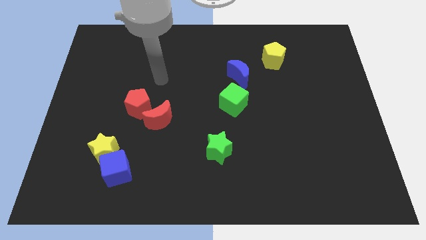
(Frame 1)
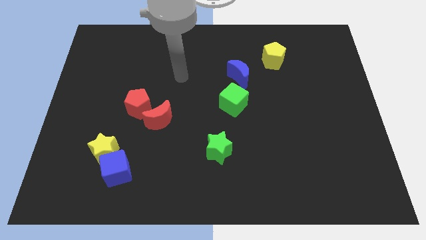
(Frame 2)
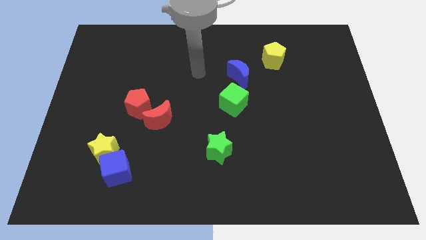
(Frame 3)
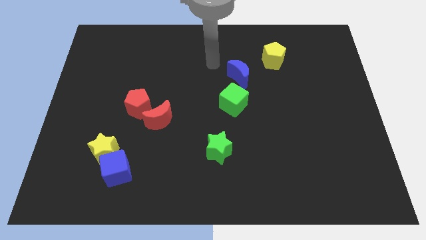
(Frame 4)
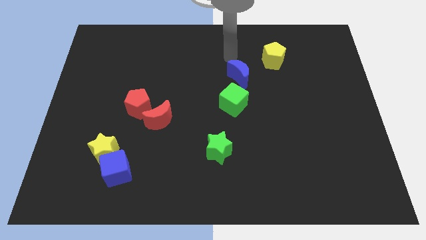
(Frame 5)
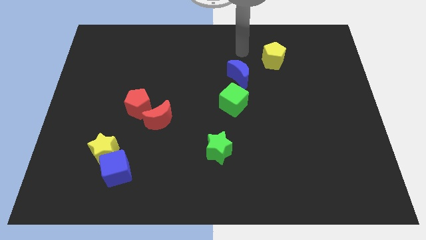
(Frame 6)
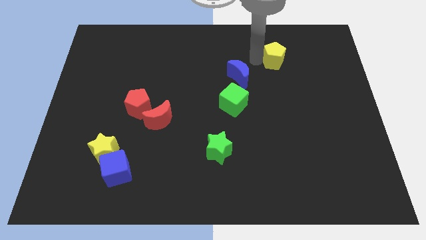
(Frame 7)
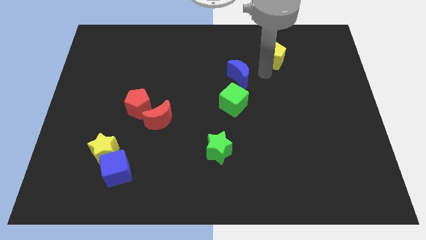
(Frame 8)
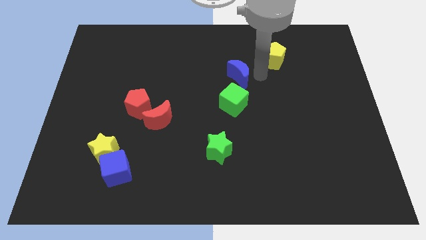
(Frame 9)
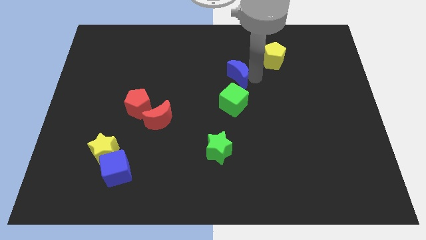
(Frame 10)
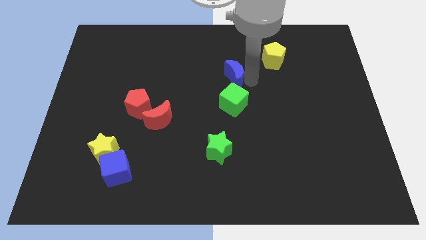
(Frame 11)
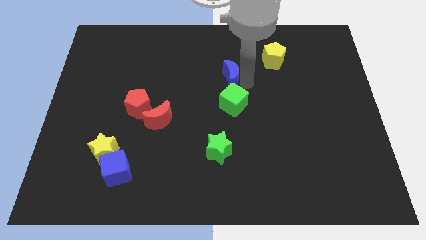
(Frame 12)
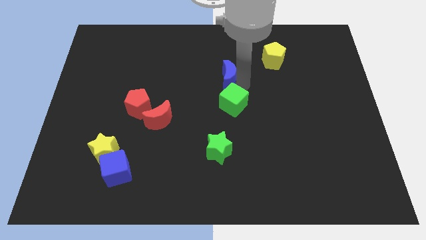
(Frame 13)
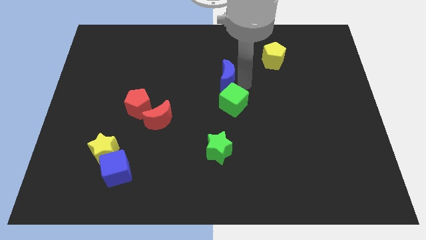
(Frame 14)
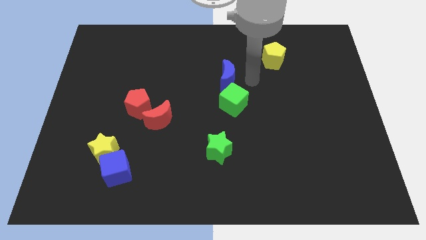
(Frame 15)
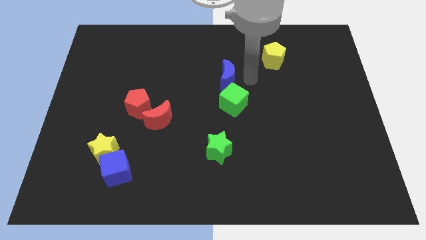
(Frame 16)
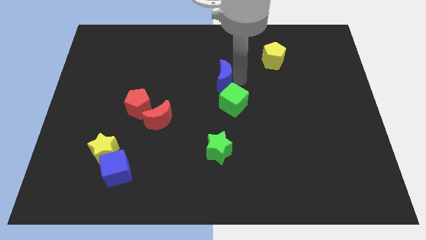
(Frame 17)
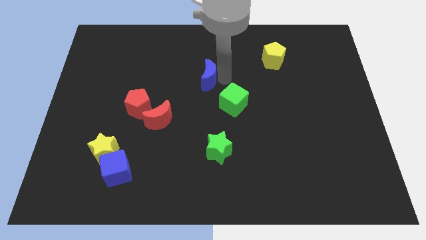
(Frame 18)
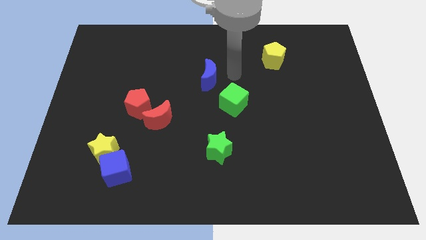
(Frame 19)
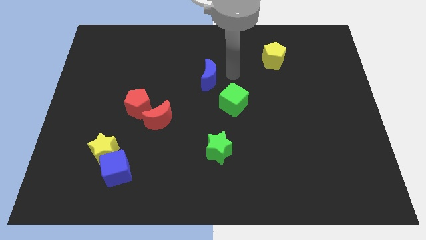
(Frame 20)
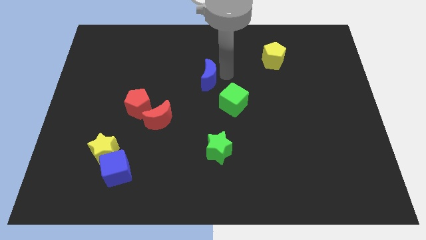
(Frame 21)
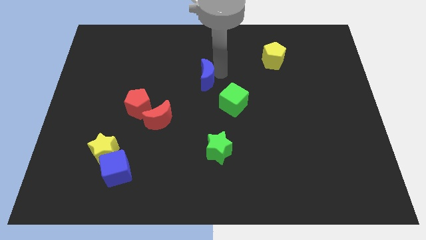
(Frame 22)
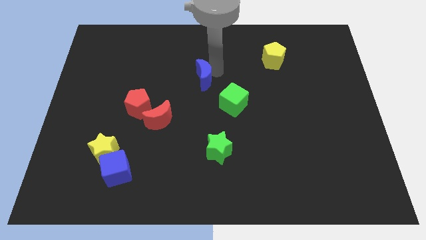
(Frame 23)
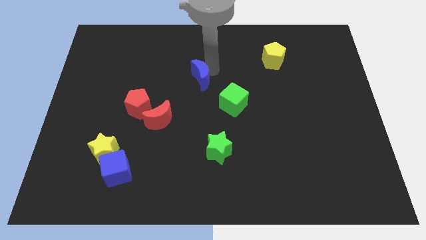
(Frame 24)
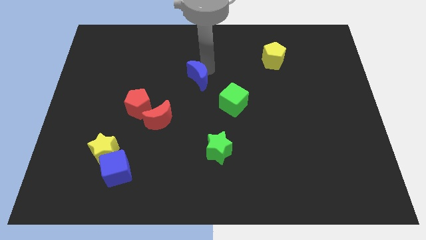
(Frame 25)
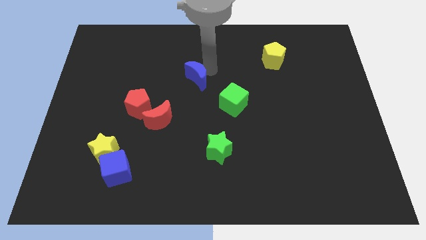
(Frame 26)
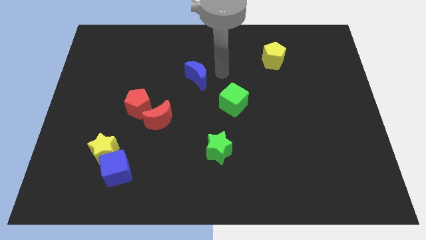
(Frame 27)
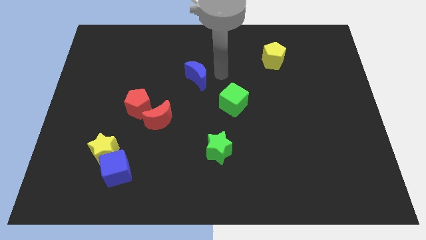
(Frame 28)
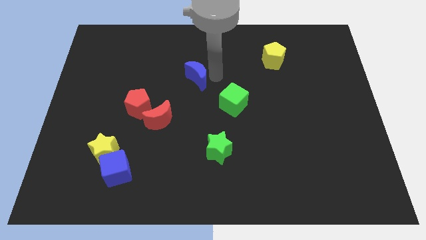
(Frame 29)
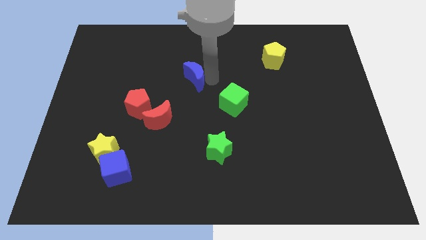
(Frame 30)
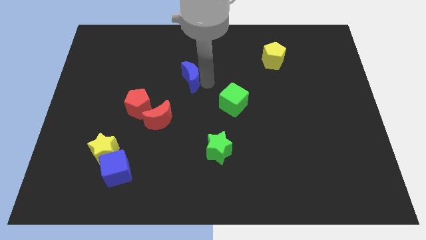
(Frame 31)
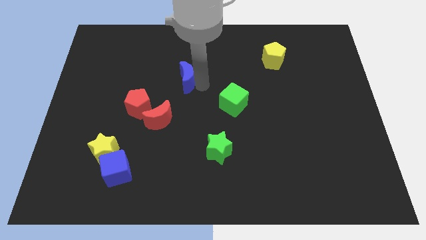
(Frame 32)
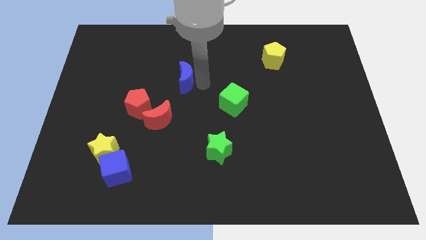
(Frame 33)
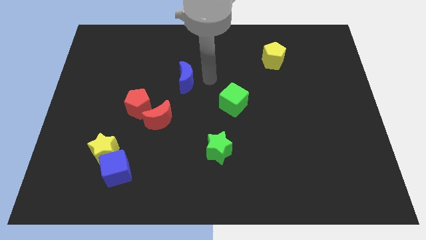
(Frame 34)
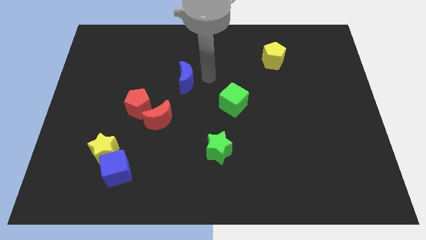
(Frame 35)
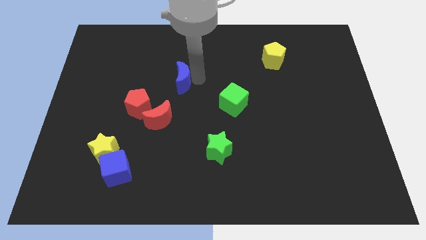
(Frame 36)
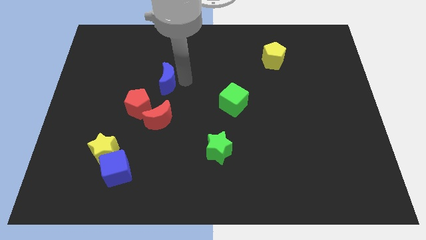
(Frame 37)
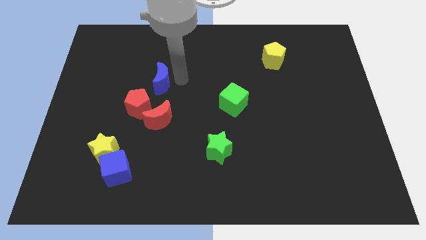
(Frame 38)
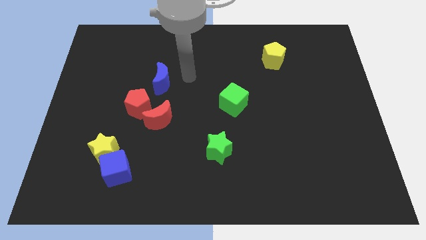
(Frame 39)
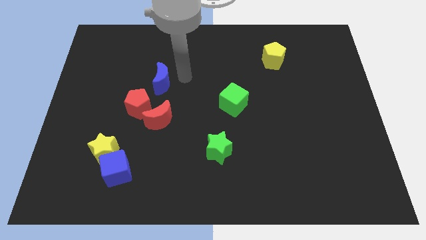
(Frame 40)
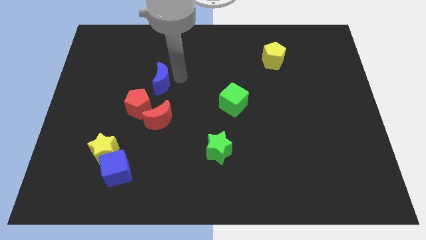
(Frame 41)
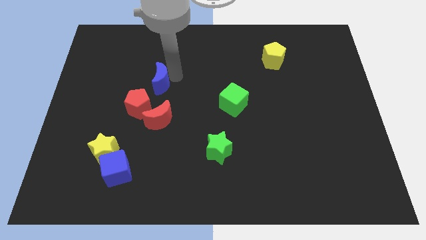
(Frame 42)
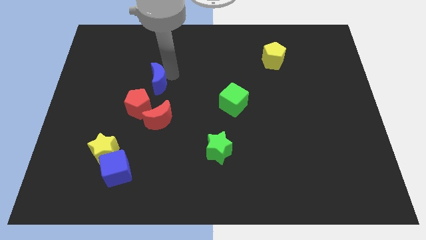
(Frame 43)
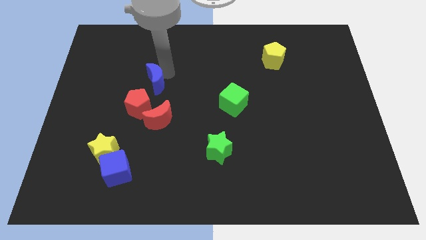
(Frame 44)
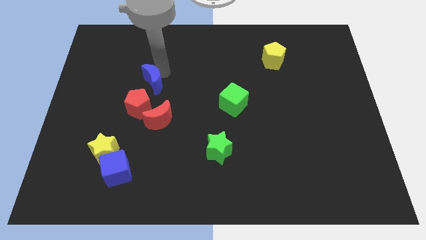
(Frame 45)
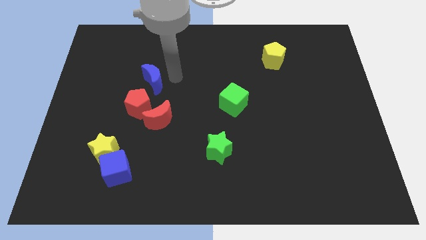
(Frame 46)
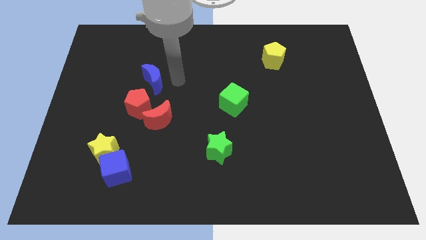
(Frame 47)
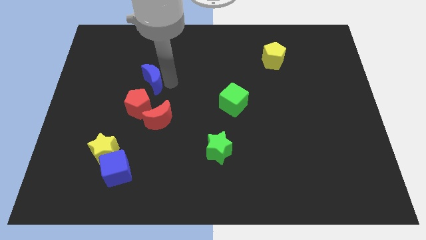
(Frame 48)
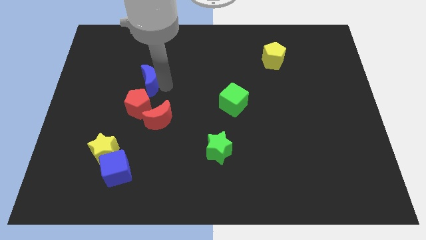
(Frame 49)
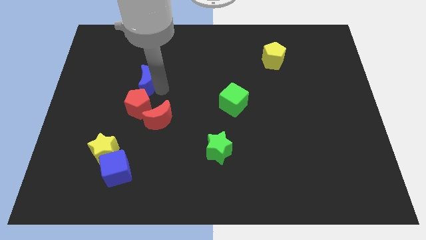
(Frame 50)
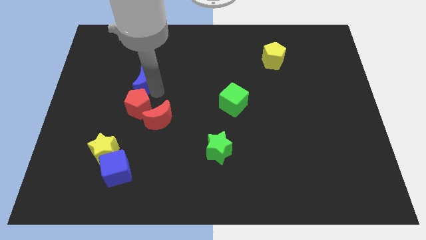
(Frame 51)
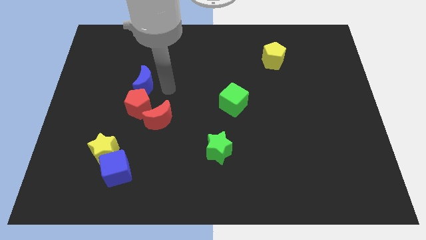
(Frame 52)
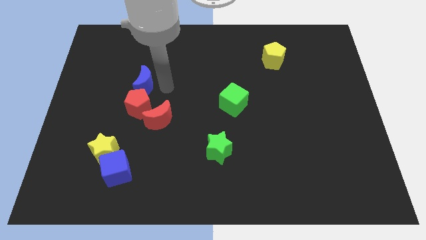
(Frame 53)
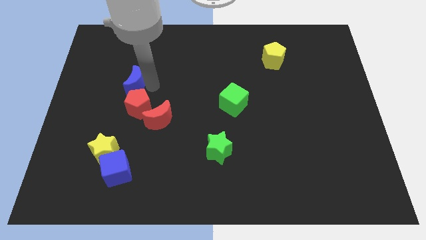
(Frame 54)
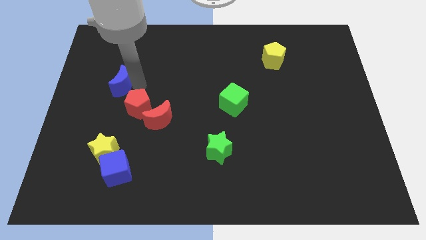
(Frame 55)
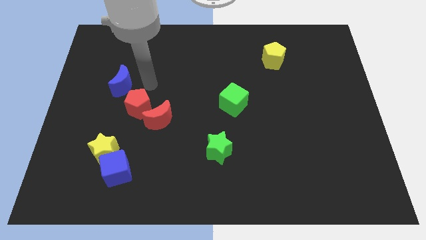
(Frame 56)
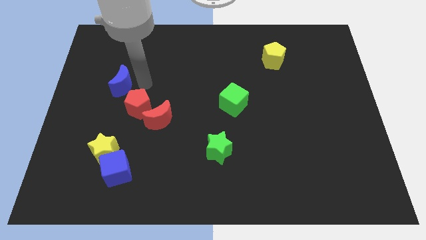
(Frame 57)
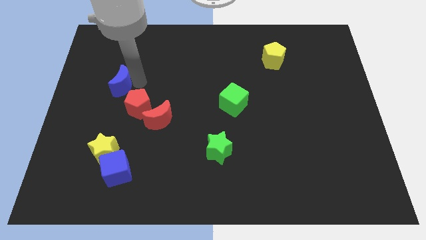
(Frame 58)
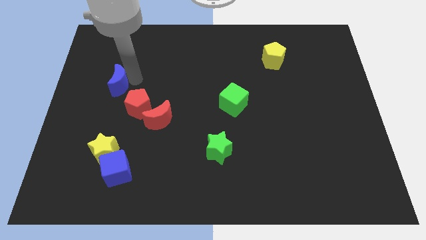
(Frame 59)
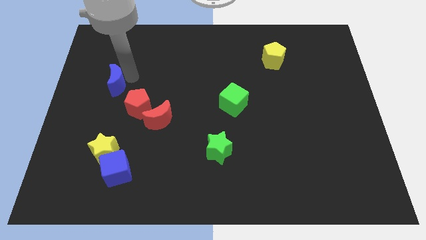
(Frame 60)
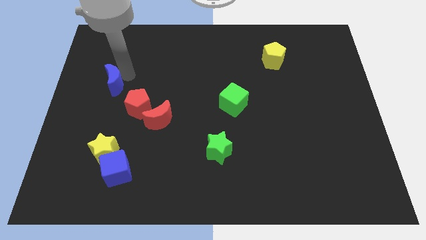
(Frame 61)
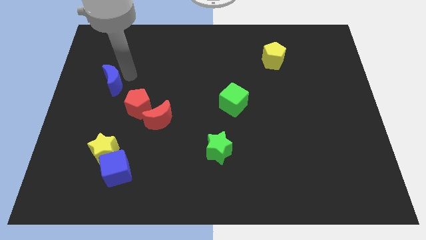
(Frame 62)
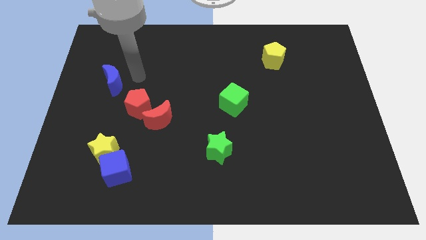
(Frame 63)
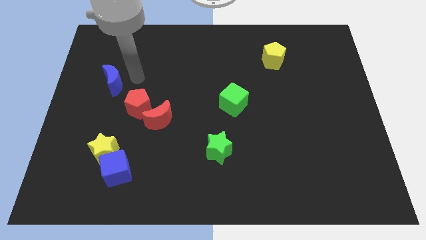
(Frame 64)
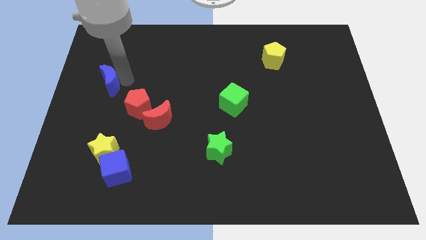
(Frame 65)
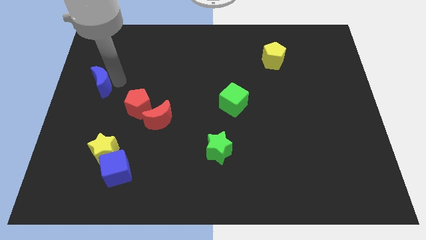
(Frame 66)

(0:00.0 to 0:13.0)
move the blue moon to the center left
